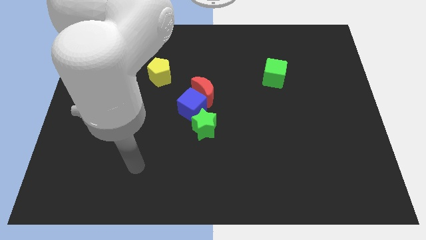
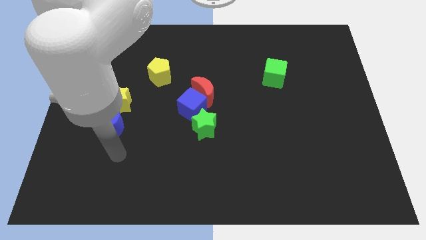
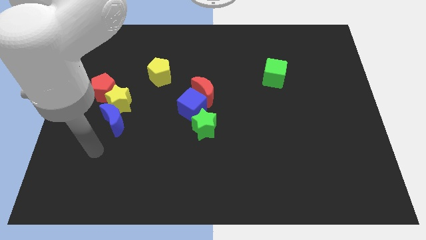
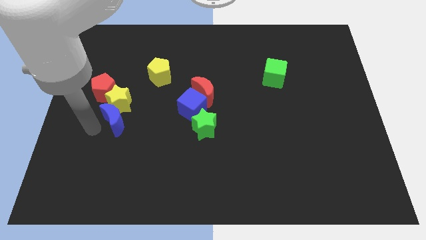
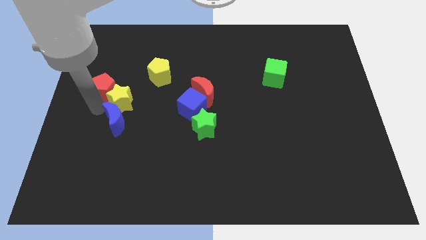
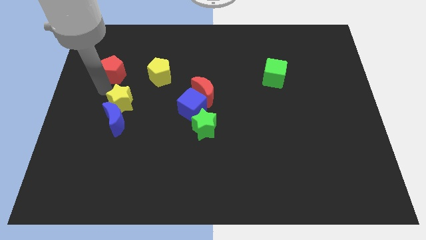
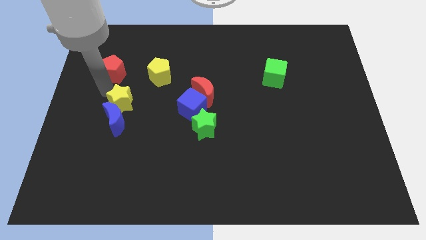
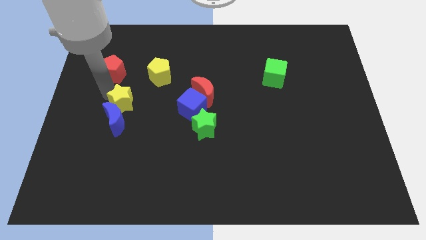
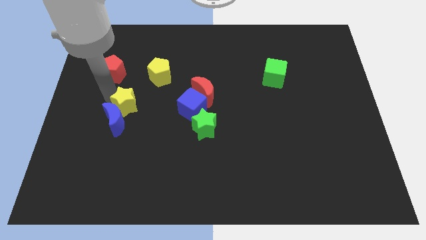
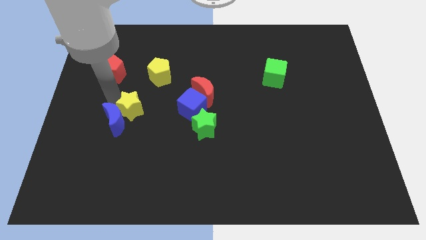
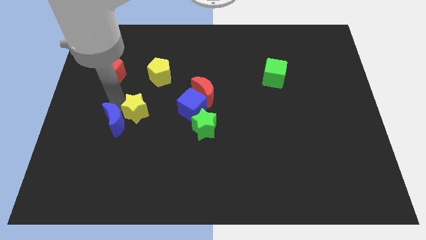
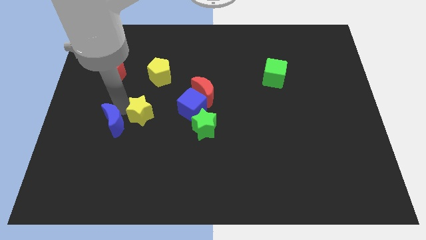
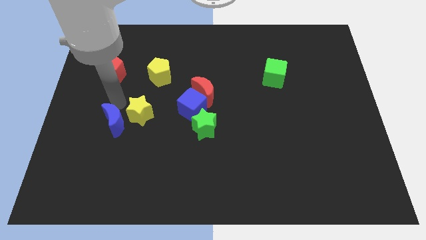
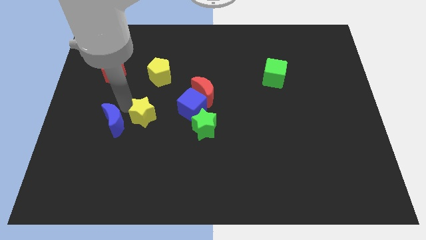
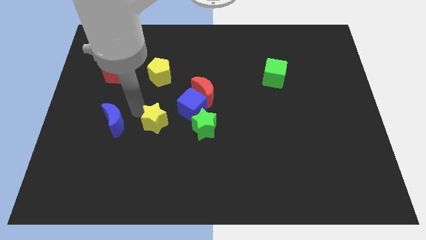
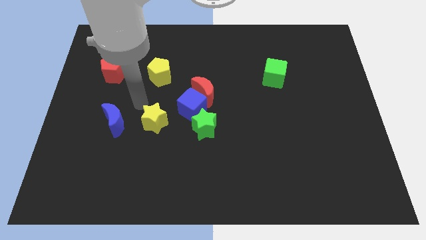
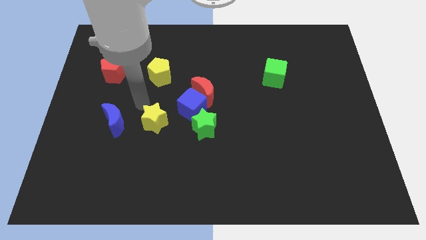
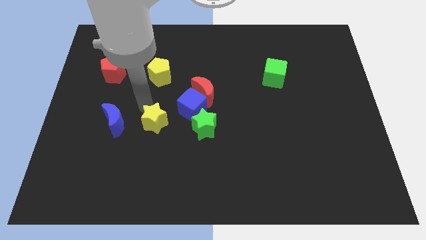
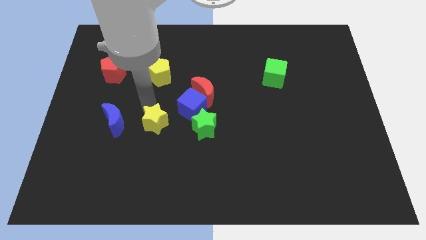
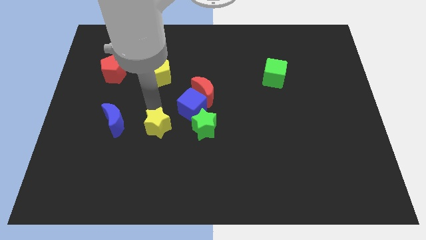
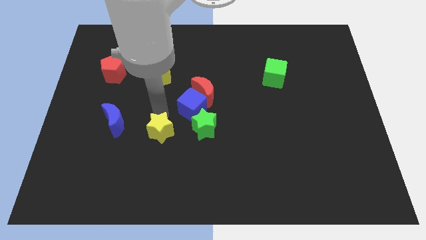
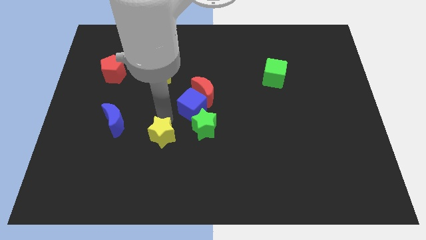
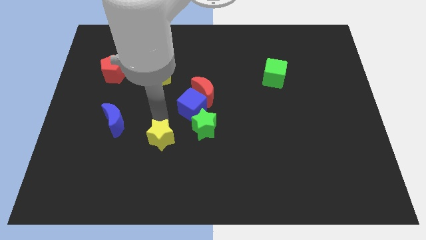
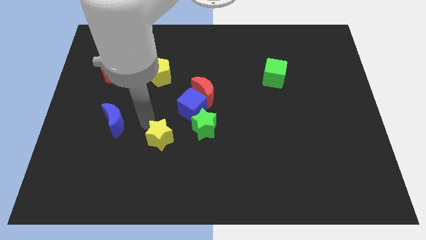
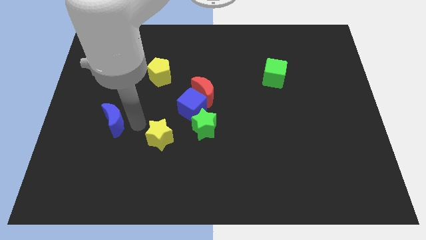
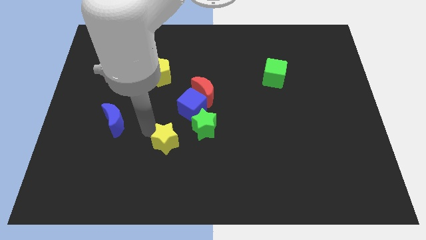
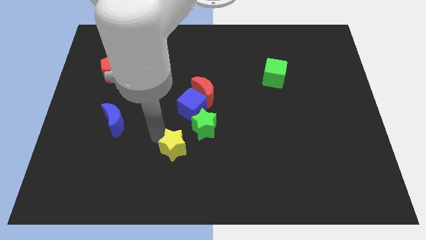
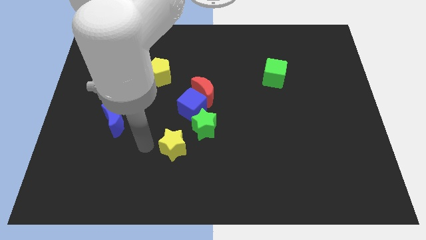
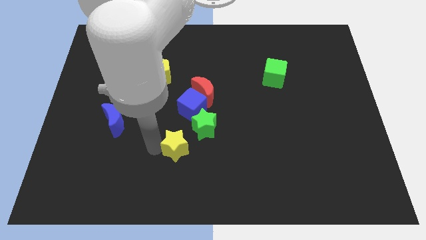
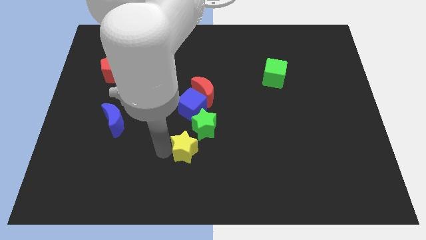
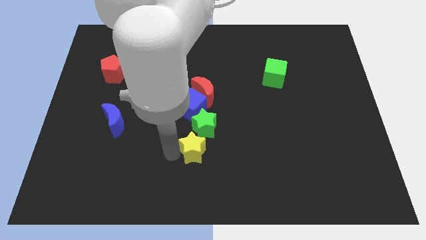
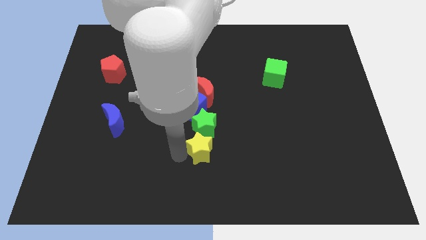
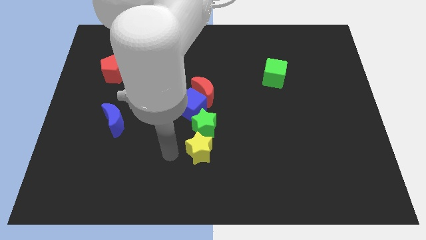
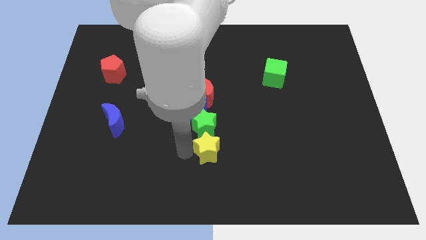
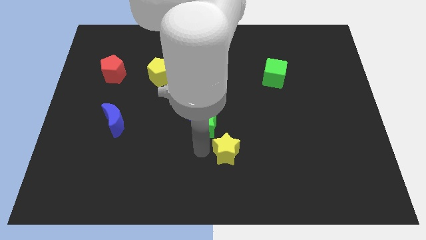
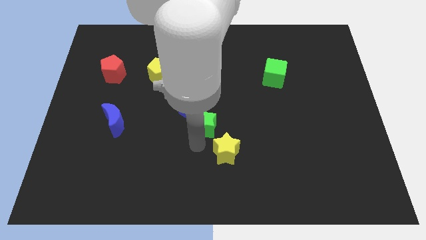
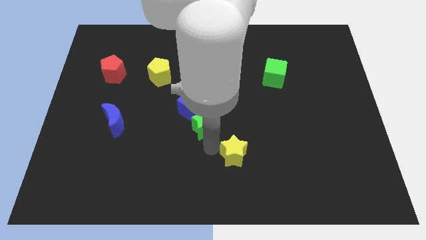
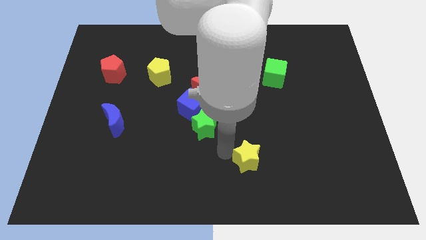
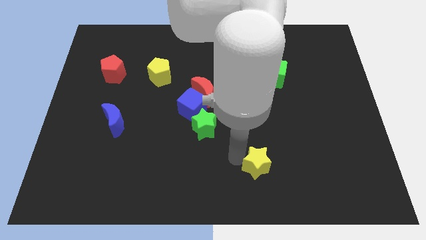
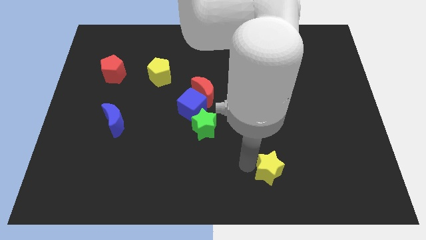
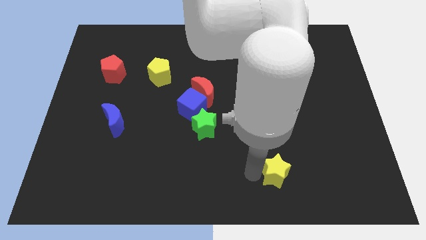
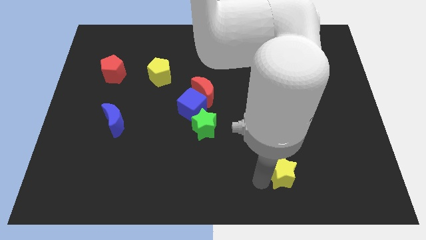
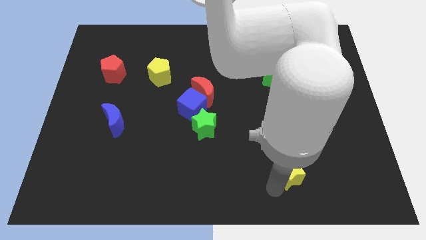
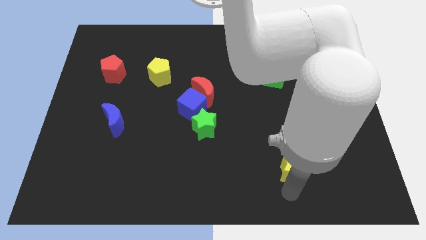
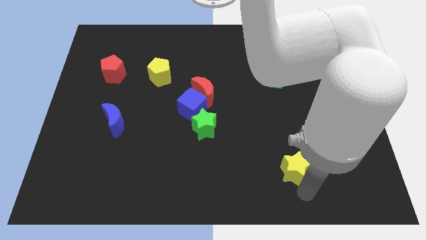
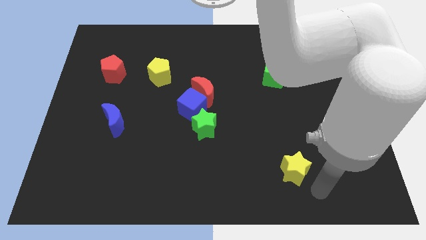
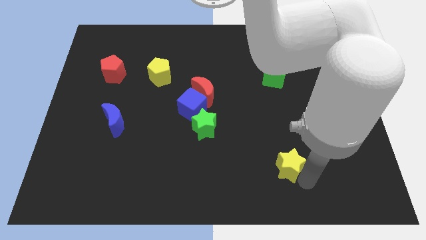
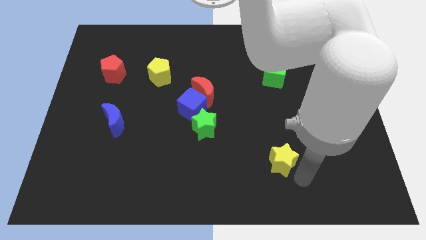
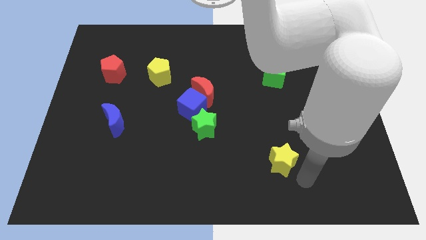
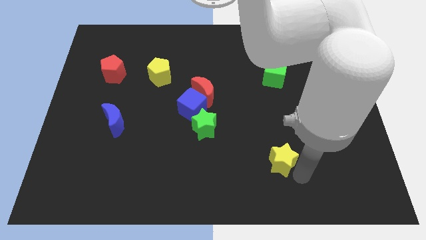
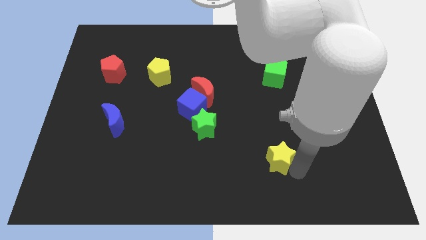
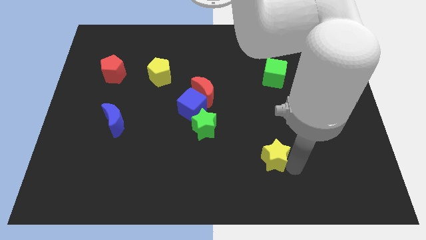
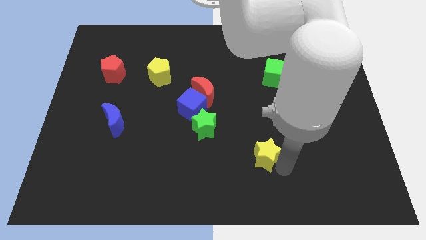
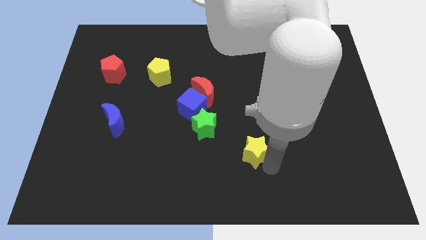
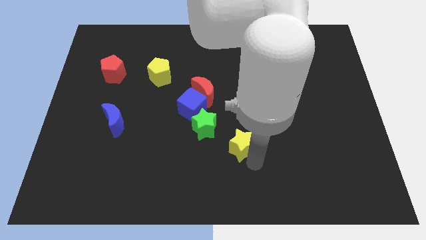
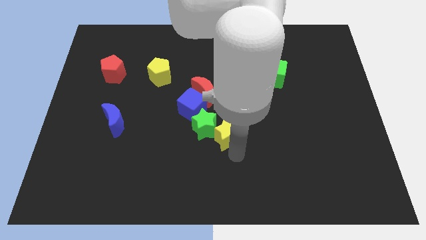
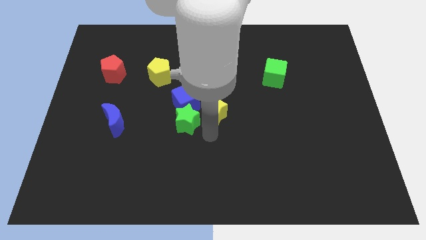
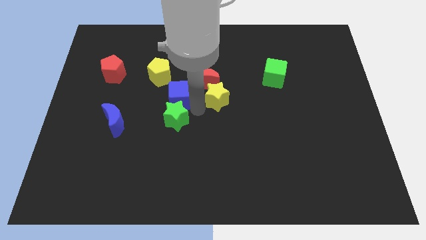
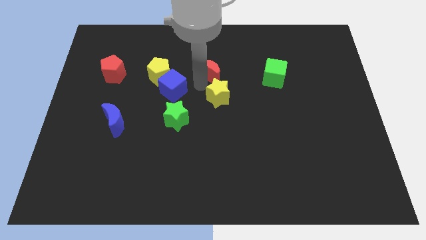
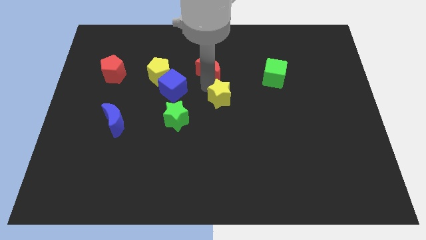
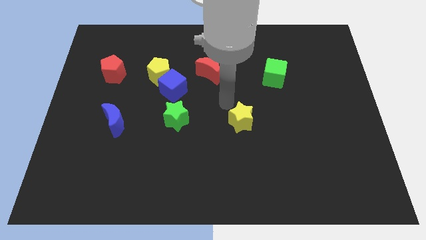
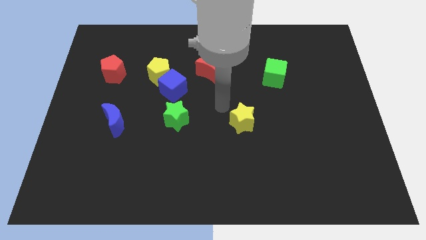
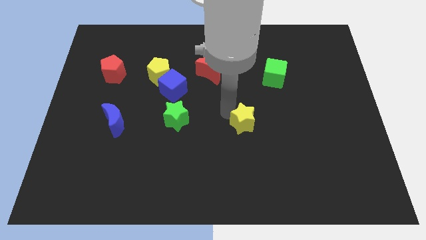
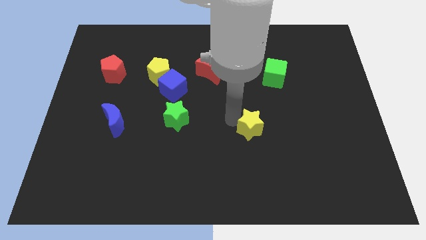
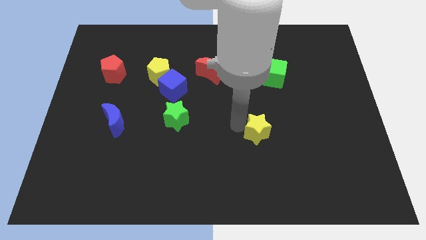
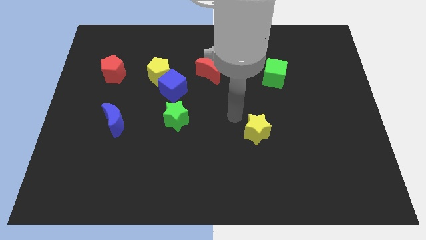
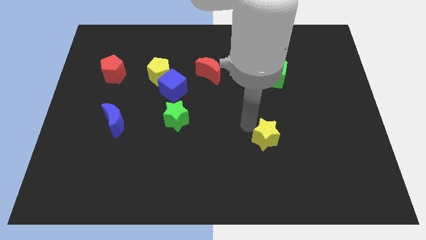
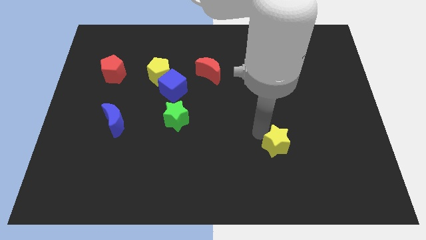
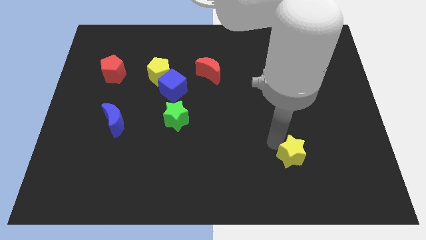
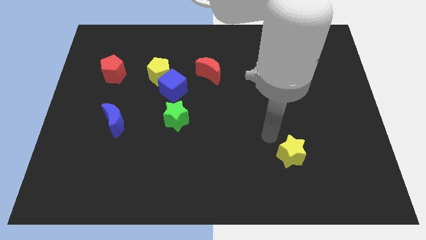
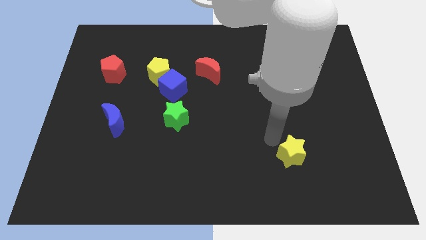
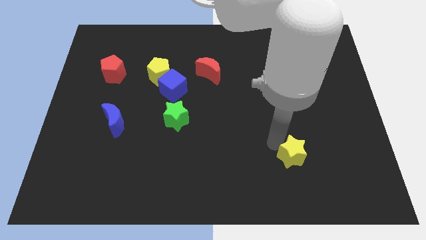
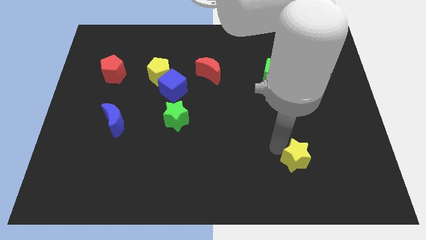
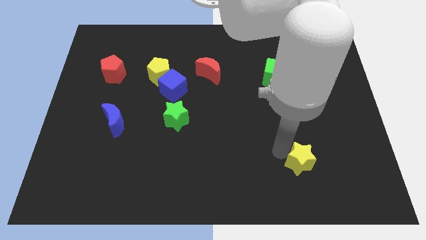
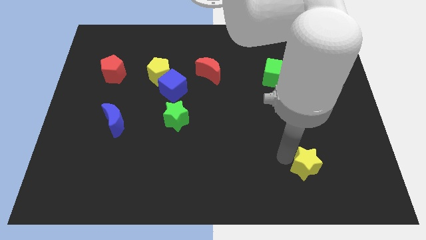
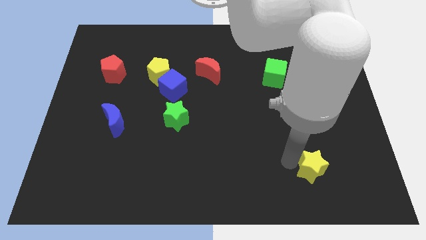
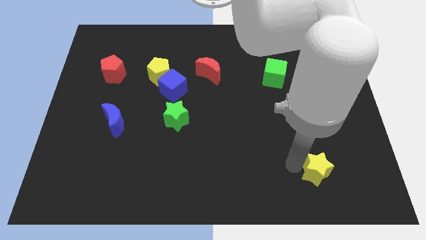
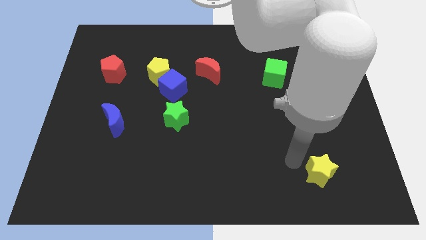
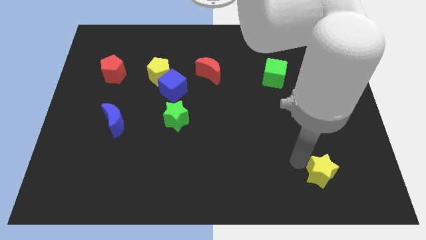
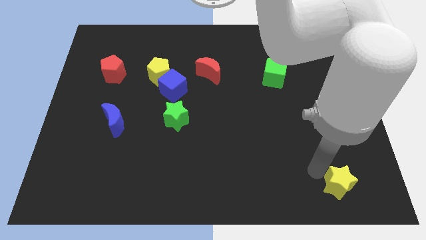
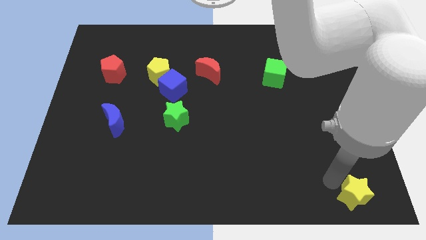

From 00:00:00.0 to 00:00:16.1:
slide the yellow star to the bottom right
